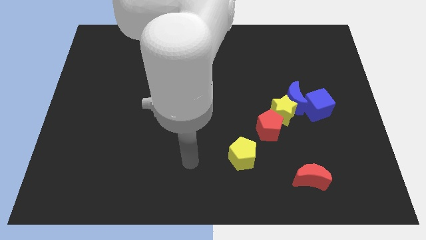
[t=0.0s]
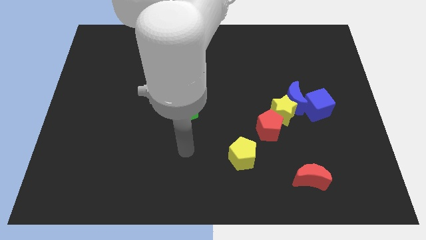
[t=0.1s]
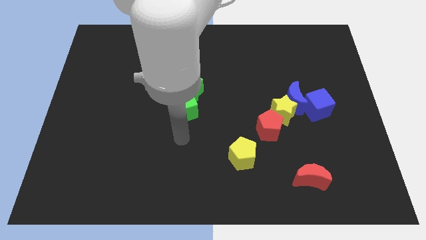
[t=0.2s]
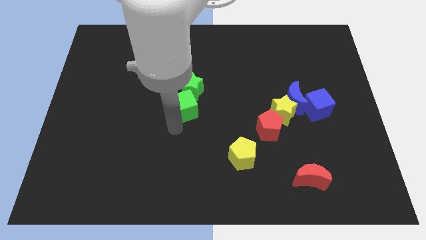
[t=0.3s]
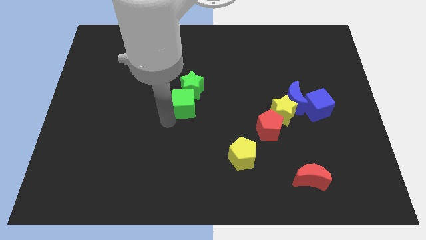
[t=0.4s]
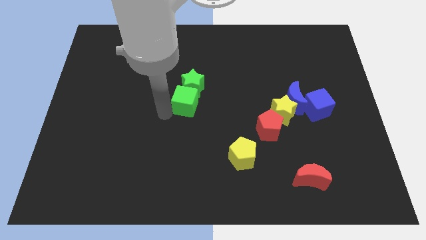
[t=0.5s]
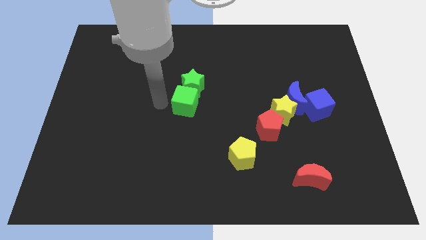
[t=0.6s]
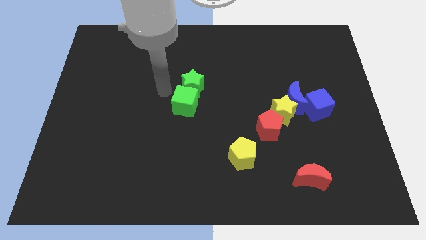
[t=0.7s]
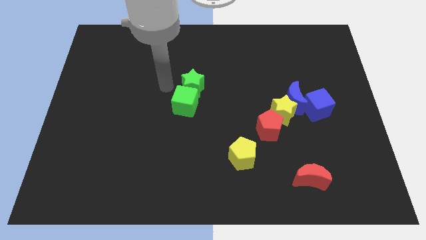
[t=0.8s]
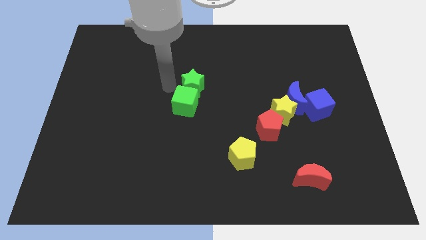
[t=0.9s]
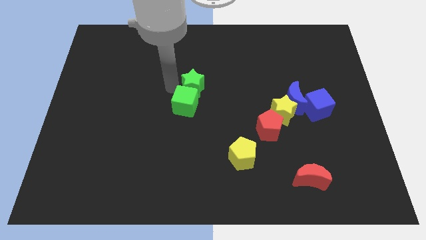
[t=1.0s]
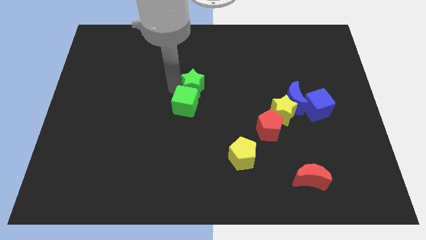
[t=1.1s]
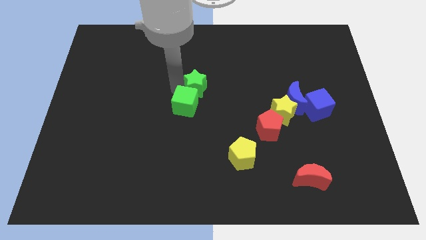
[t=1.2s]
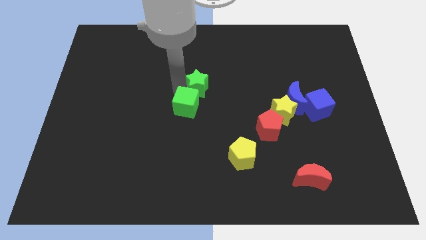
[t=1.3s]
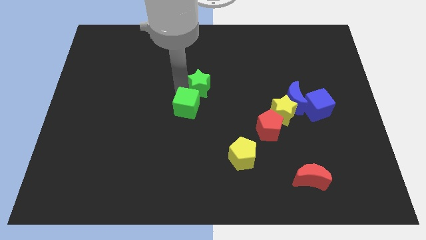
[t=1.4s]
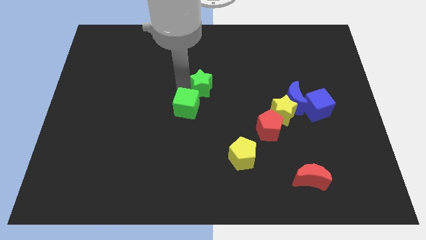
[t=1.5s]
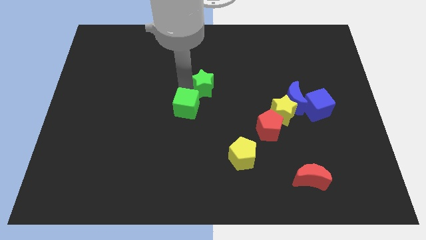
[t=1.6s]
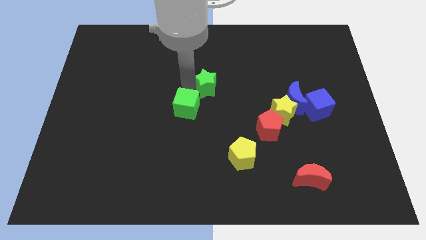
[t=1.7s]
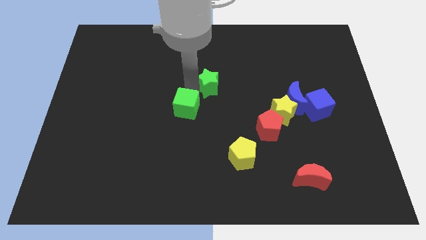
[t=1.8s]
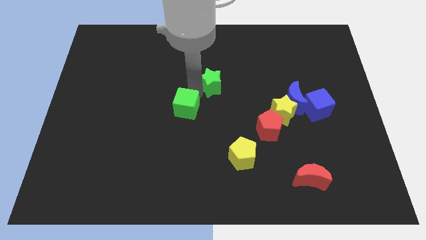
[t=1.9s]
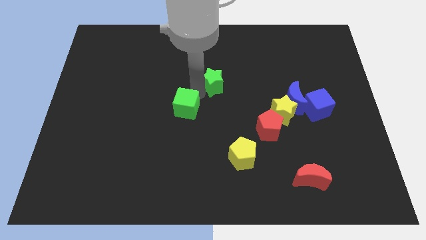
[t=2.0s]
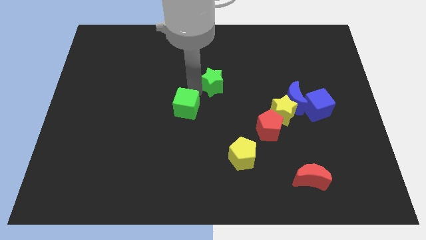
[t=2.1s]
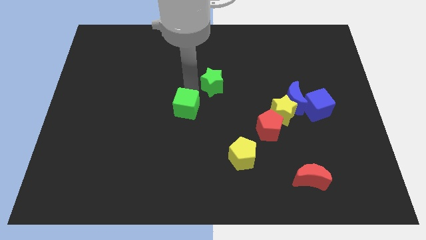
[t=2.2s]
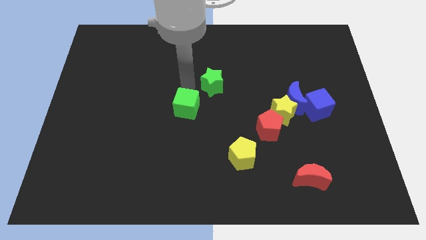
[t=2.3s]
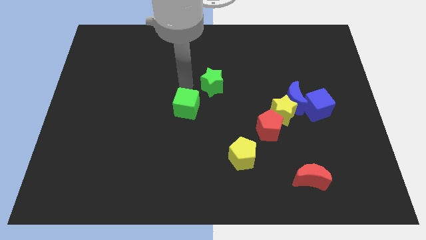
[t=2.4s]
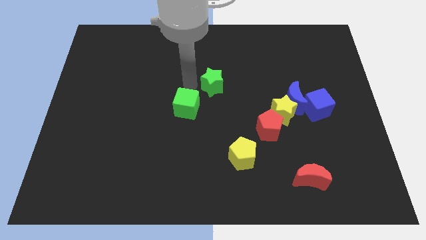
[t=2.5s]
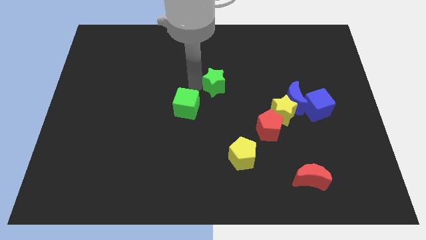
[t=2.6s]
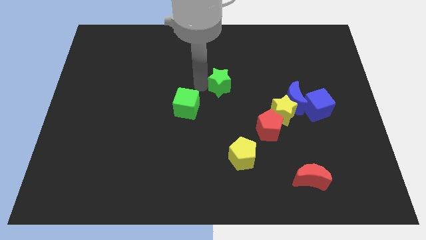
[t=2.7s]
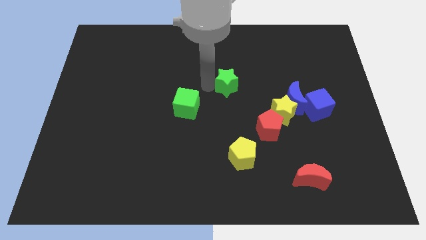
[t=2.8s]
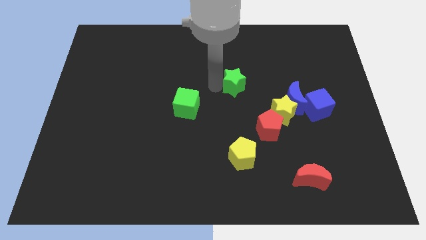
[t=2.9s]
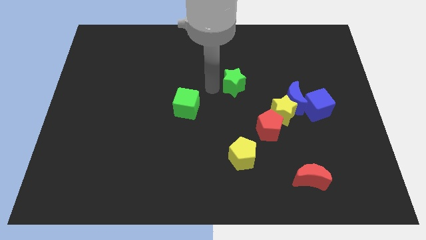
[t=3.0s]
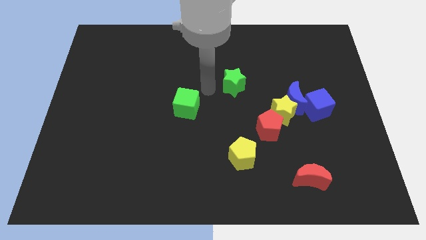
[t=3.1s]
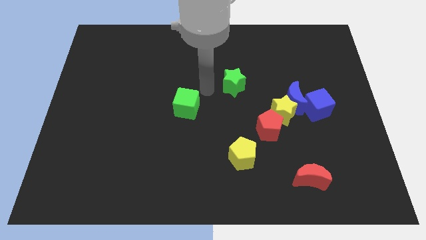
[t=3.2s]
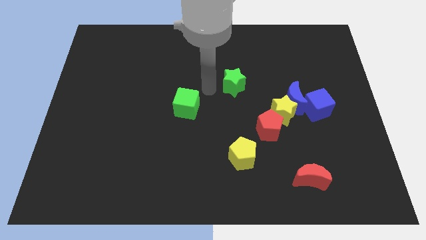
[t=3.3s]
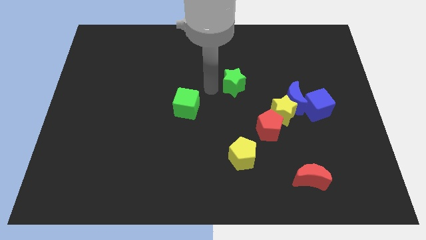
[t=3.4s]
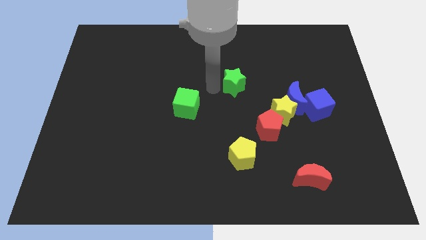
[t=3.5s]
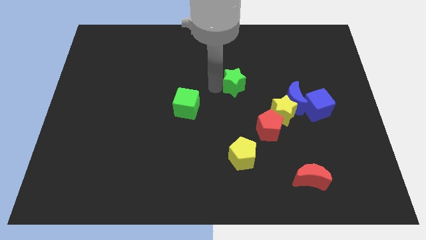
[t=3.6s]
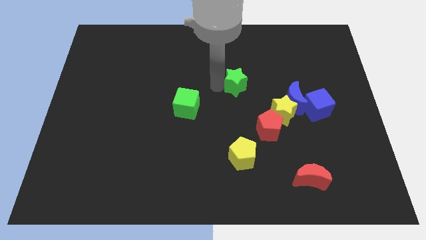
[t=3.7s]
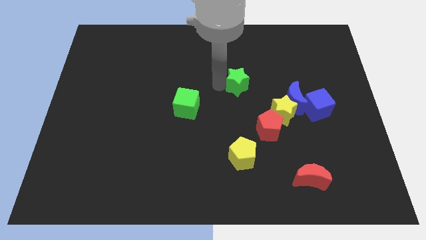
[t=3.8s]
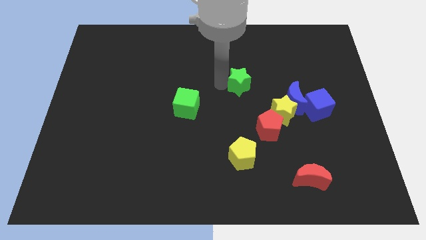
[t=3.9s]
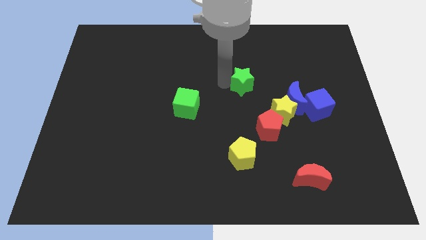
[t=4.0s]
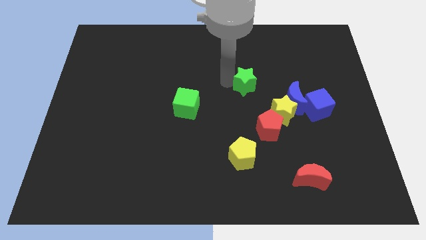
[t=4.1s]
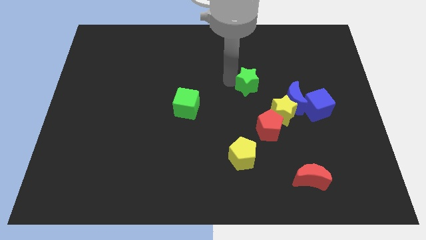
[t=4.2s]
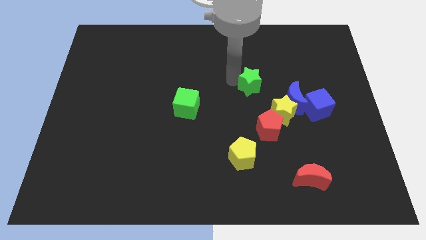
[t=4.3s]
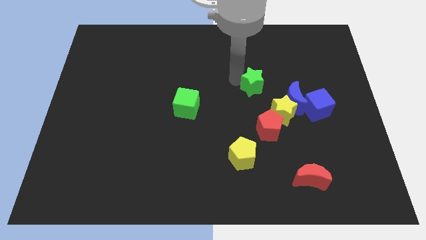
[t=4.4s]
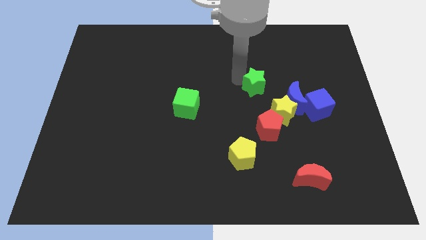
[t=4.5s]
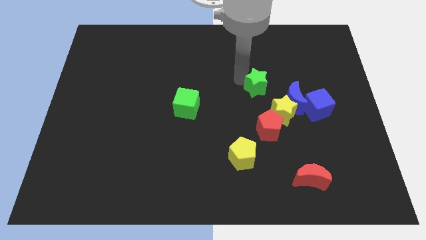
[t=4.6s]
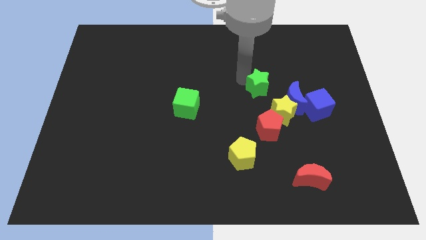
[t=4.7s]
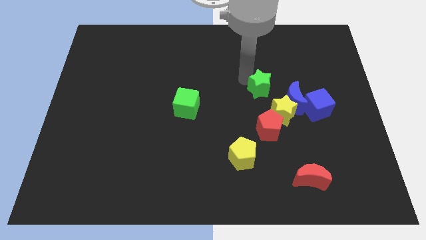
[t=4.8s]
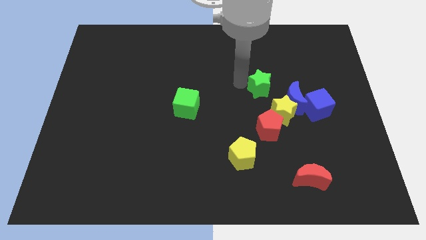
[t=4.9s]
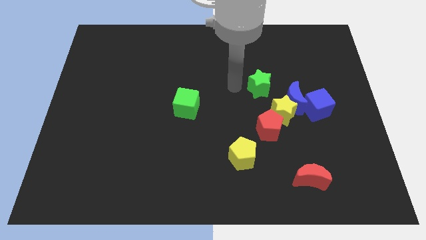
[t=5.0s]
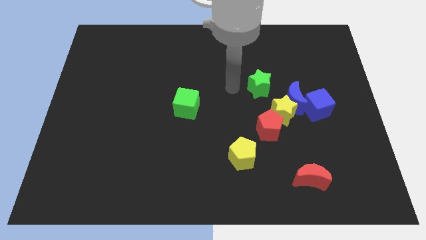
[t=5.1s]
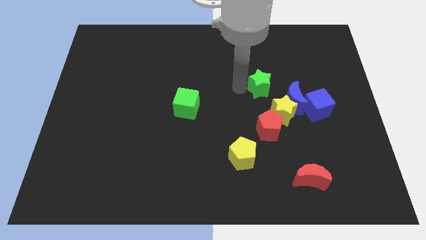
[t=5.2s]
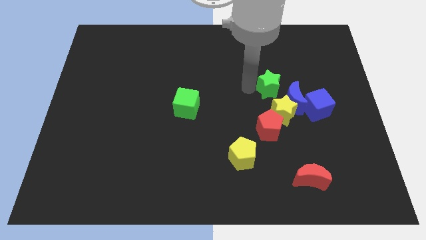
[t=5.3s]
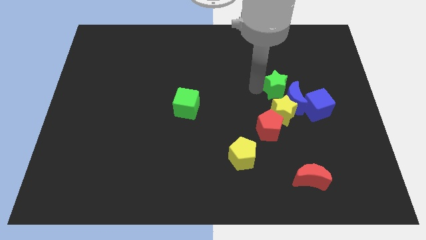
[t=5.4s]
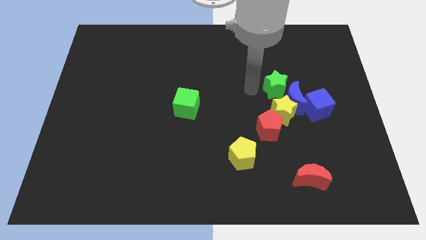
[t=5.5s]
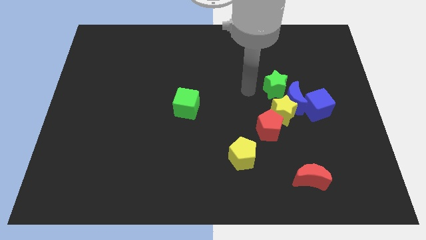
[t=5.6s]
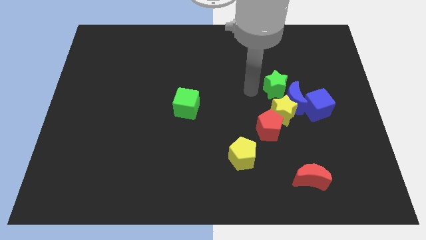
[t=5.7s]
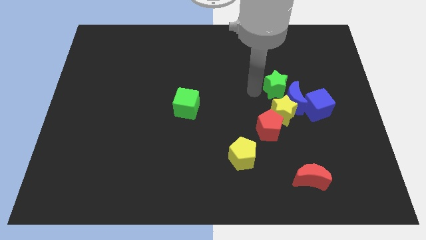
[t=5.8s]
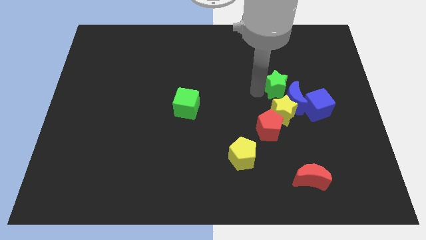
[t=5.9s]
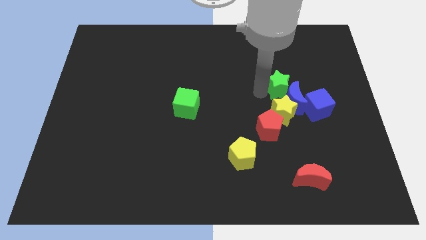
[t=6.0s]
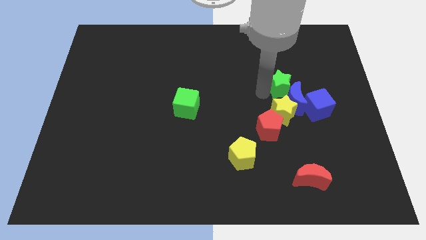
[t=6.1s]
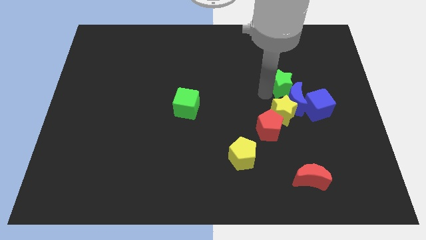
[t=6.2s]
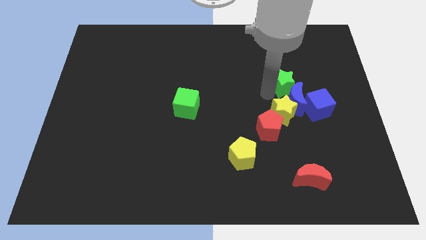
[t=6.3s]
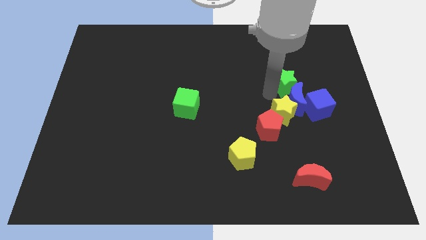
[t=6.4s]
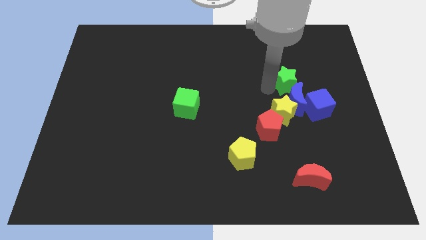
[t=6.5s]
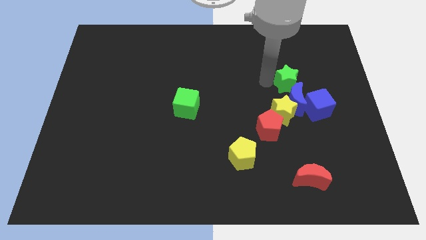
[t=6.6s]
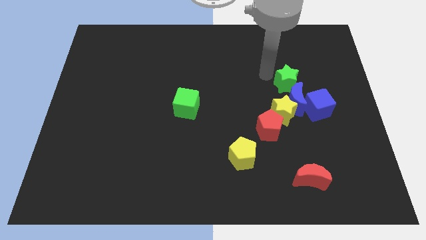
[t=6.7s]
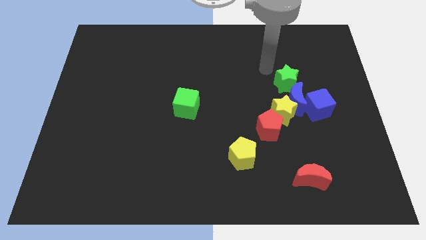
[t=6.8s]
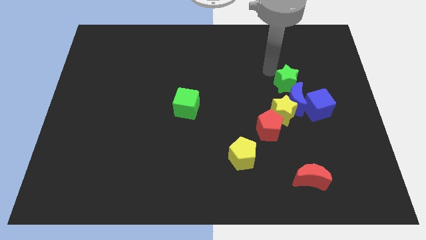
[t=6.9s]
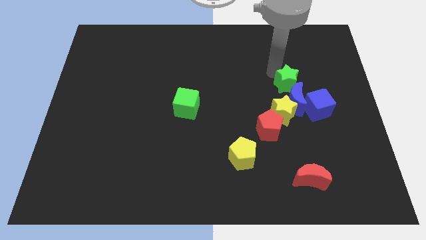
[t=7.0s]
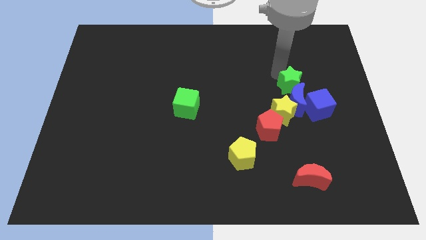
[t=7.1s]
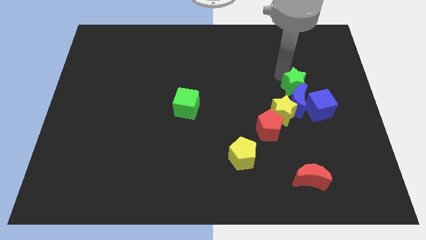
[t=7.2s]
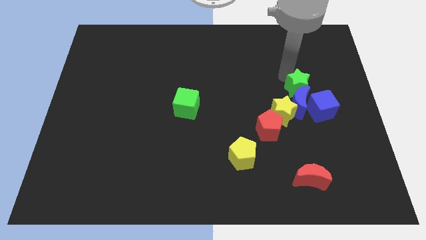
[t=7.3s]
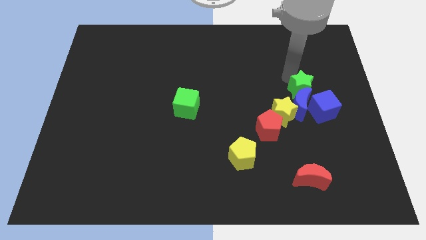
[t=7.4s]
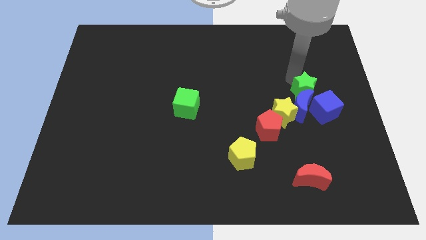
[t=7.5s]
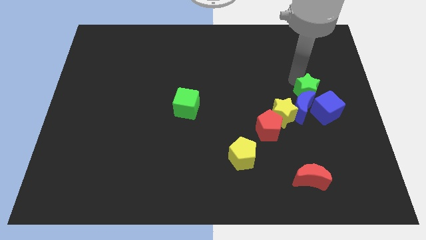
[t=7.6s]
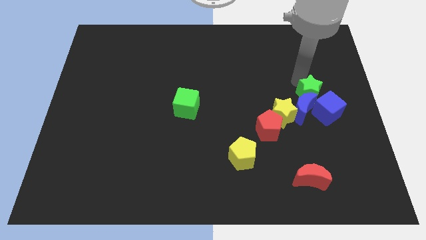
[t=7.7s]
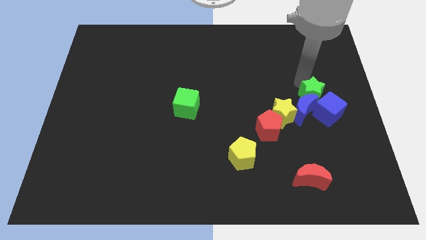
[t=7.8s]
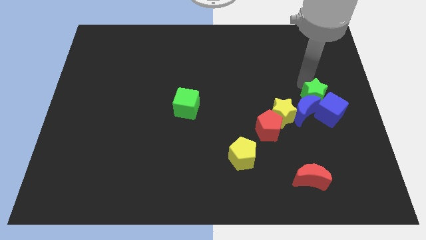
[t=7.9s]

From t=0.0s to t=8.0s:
slide the green star next to the blue cube
